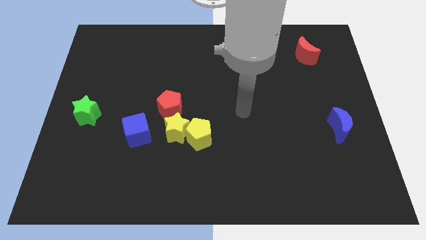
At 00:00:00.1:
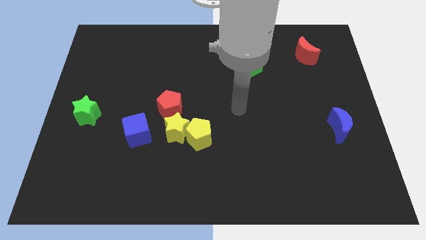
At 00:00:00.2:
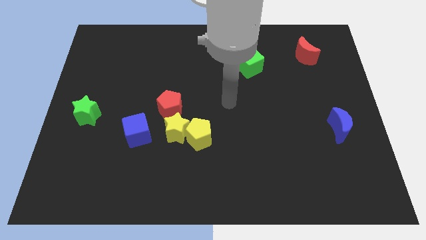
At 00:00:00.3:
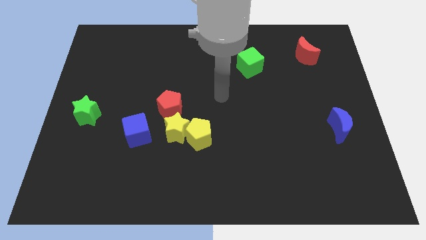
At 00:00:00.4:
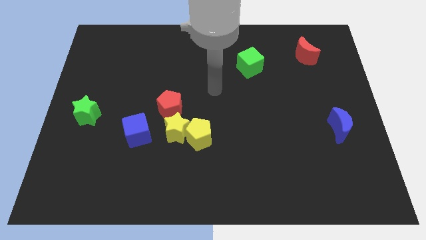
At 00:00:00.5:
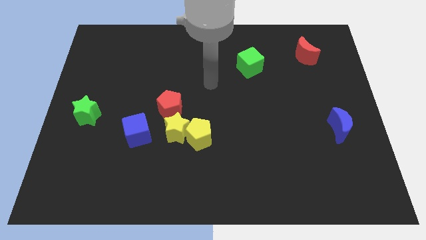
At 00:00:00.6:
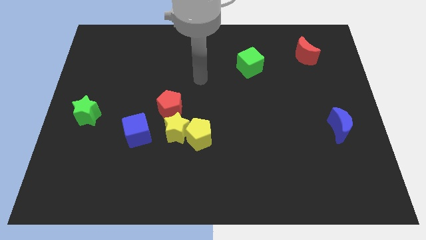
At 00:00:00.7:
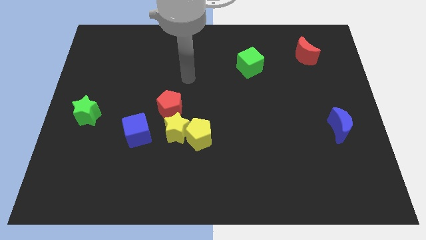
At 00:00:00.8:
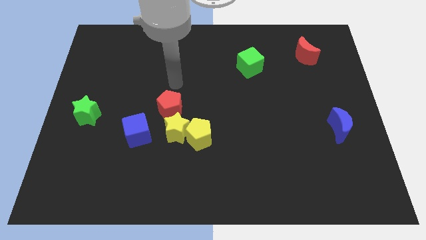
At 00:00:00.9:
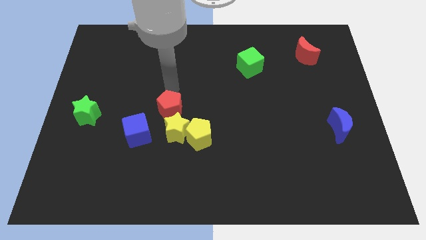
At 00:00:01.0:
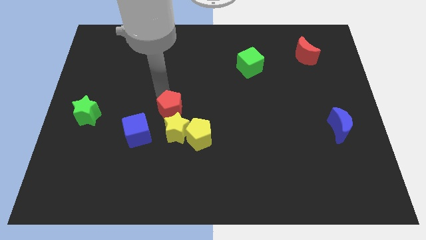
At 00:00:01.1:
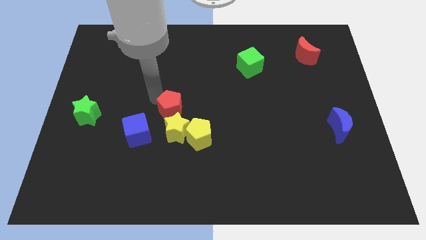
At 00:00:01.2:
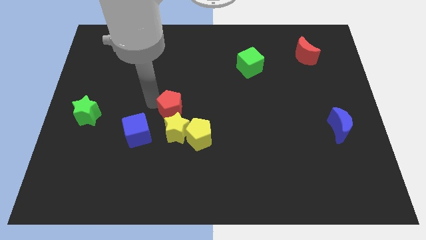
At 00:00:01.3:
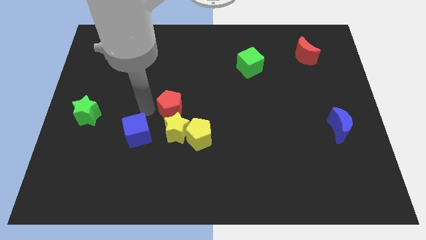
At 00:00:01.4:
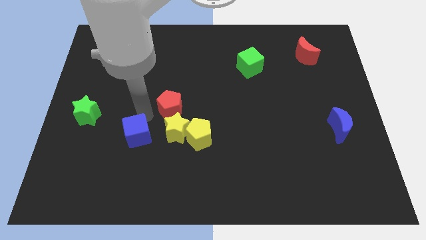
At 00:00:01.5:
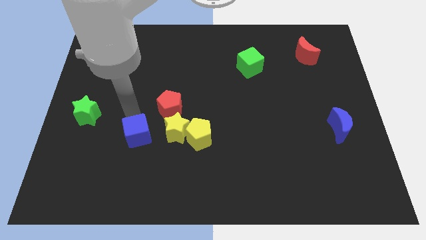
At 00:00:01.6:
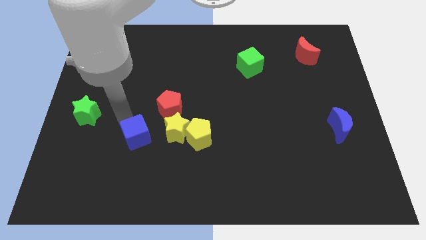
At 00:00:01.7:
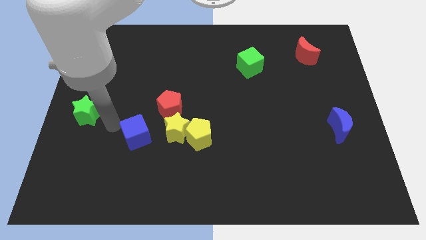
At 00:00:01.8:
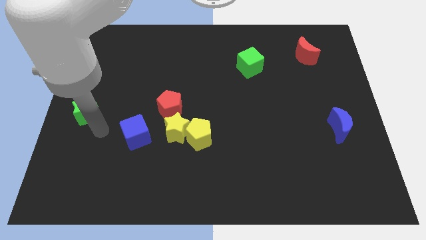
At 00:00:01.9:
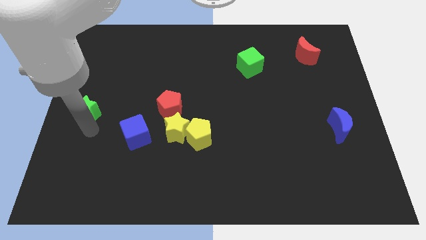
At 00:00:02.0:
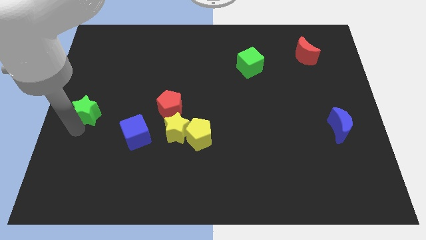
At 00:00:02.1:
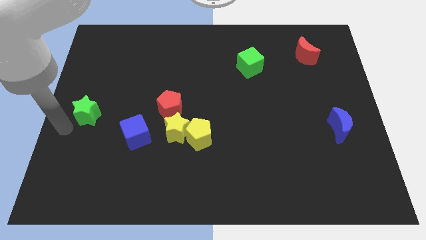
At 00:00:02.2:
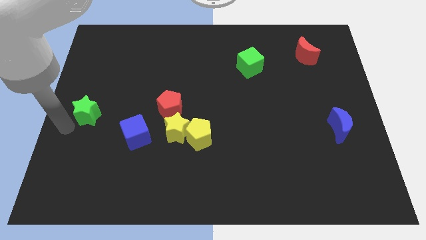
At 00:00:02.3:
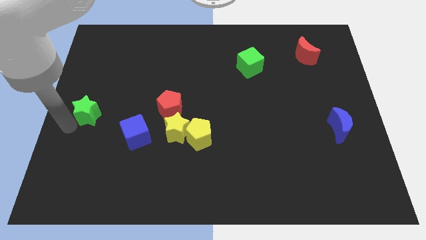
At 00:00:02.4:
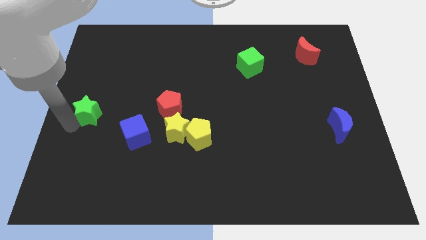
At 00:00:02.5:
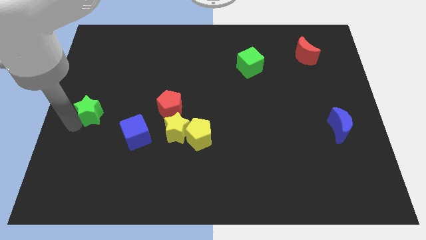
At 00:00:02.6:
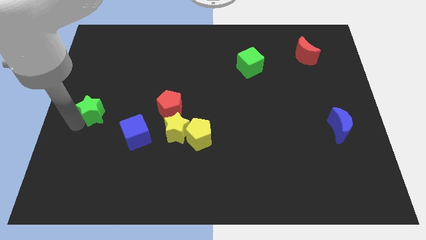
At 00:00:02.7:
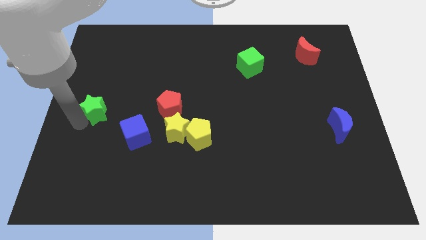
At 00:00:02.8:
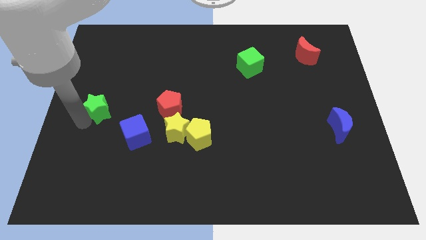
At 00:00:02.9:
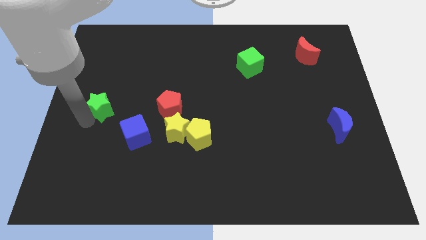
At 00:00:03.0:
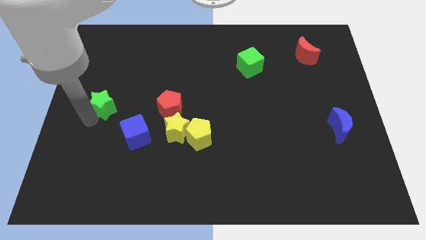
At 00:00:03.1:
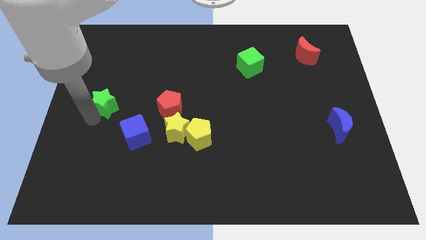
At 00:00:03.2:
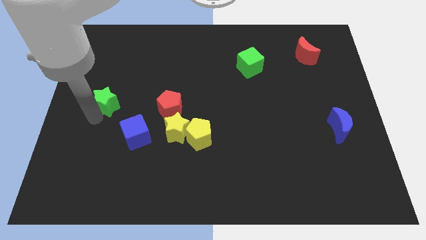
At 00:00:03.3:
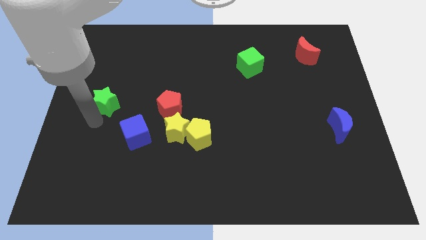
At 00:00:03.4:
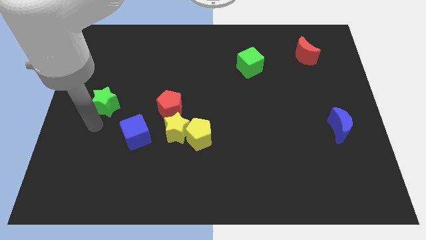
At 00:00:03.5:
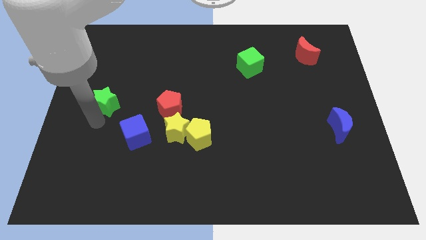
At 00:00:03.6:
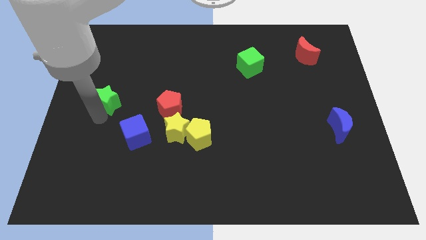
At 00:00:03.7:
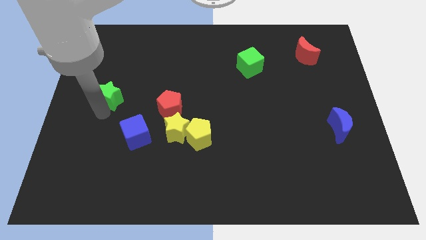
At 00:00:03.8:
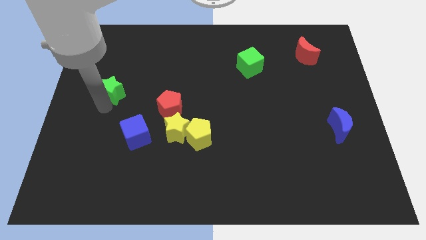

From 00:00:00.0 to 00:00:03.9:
push the green star upwards and to the right diagonally somewhat

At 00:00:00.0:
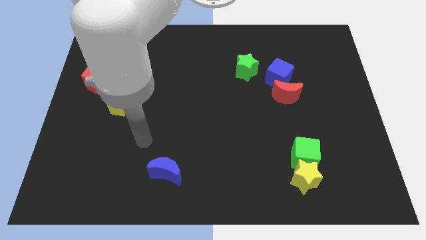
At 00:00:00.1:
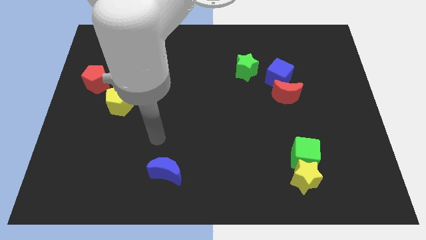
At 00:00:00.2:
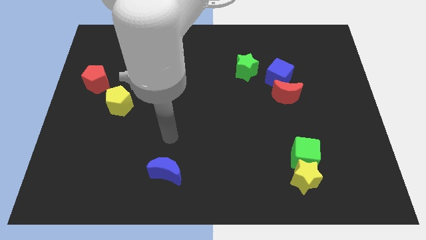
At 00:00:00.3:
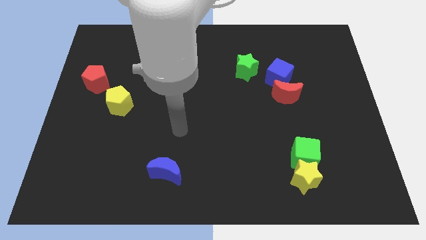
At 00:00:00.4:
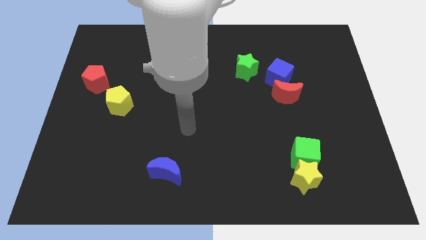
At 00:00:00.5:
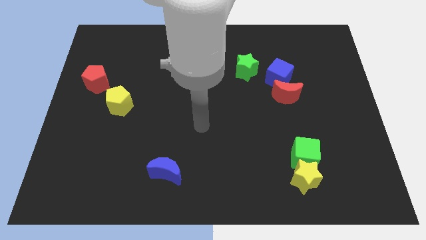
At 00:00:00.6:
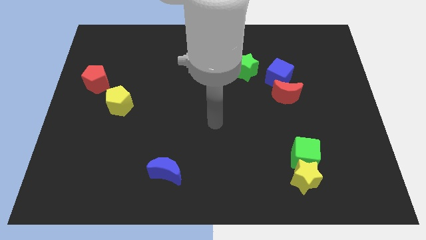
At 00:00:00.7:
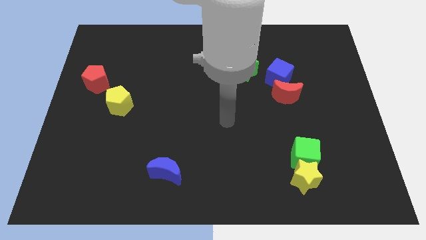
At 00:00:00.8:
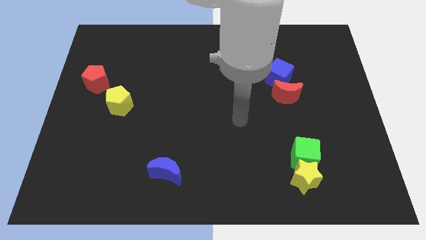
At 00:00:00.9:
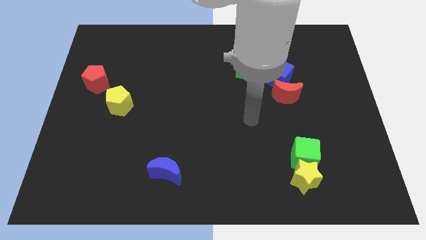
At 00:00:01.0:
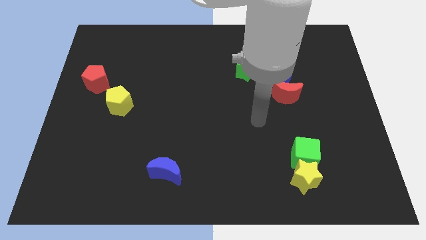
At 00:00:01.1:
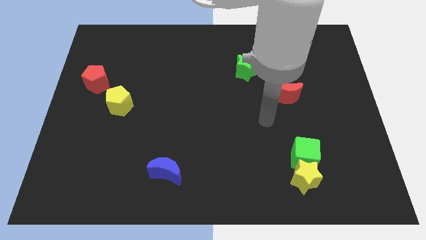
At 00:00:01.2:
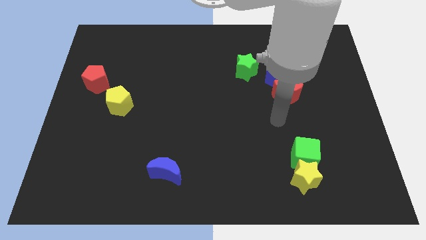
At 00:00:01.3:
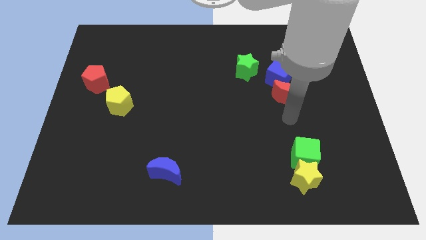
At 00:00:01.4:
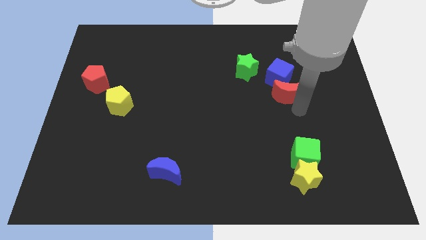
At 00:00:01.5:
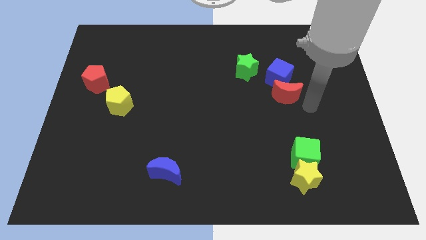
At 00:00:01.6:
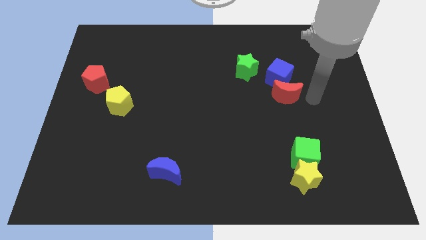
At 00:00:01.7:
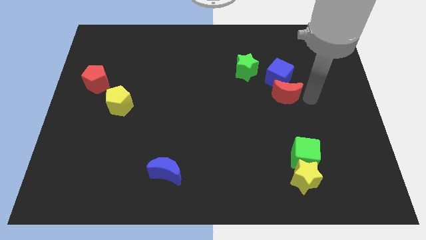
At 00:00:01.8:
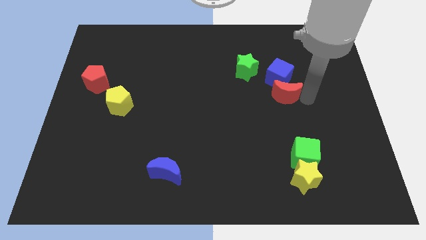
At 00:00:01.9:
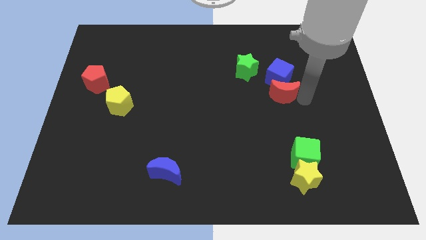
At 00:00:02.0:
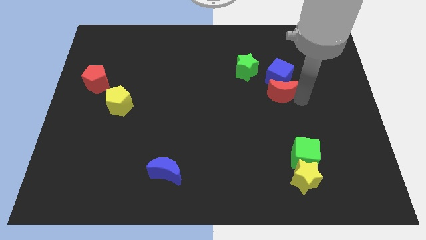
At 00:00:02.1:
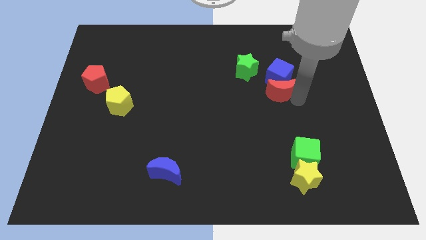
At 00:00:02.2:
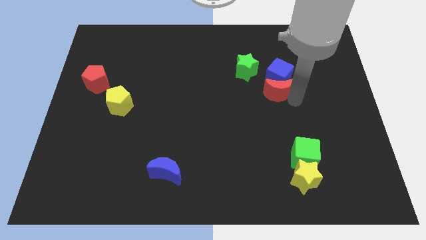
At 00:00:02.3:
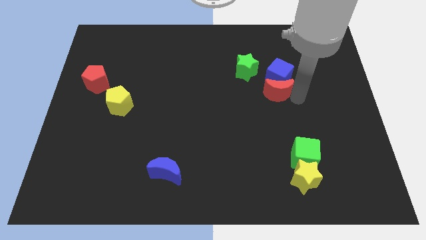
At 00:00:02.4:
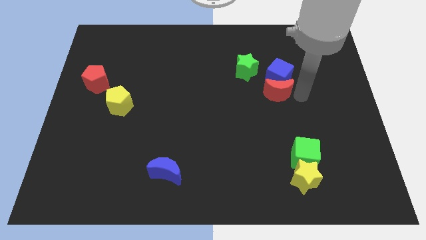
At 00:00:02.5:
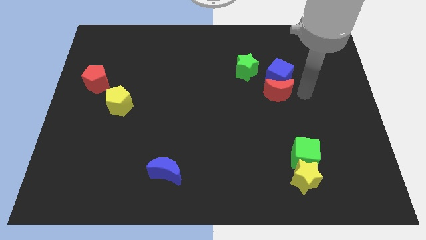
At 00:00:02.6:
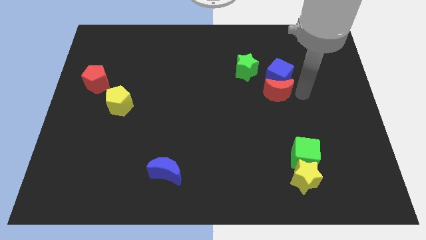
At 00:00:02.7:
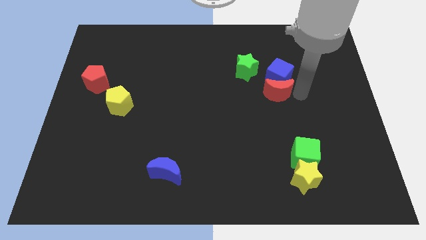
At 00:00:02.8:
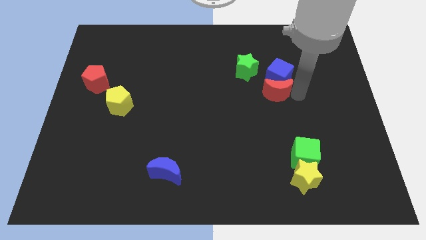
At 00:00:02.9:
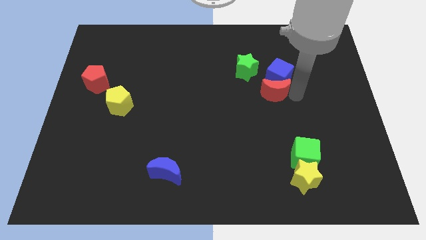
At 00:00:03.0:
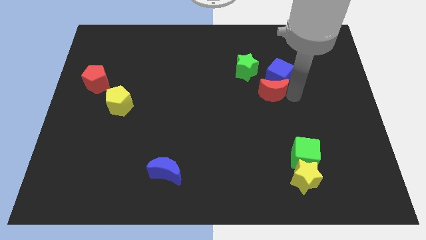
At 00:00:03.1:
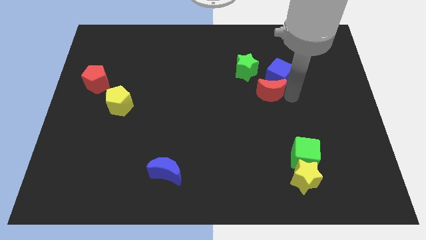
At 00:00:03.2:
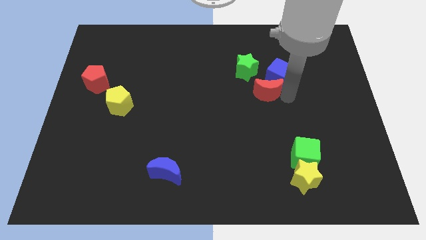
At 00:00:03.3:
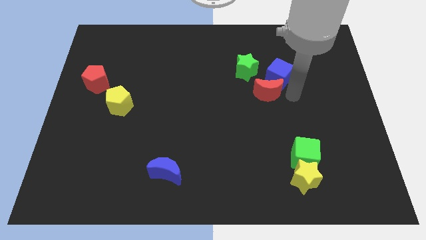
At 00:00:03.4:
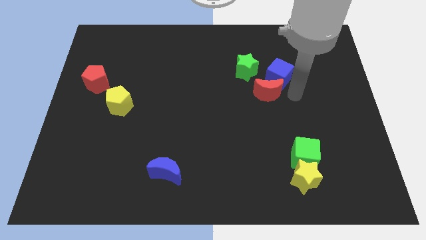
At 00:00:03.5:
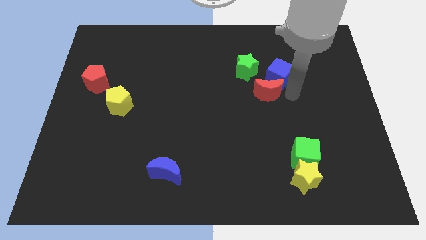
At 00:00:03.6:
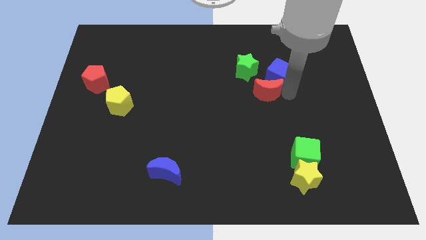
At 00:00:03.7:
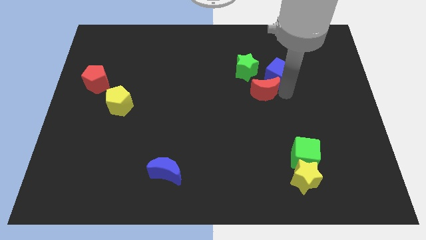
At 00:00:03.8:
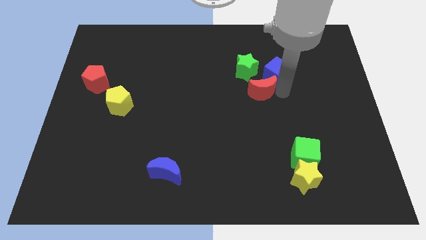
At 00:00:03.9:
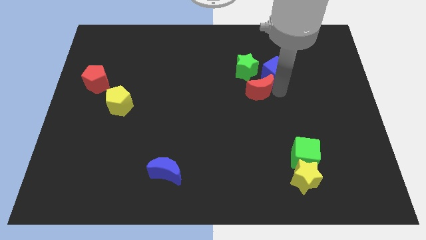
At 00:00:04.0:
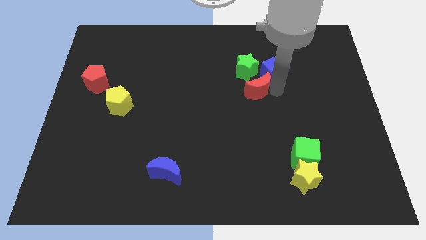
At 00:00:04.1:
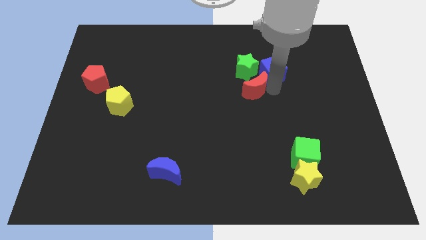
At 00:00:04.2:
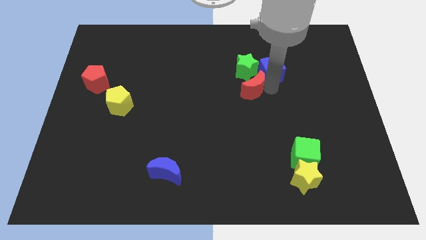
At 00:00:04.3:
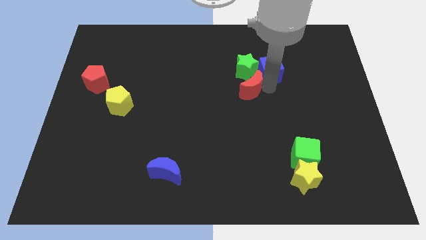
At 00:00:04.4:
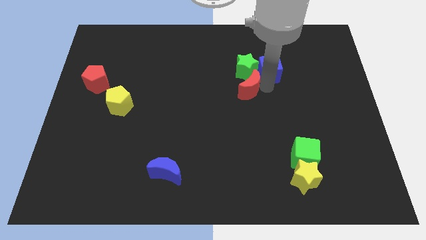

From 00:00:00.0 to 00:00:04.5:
slightly move the red moon diagonally upwards and left
